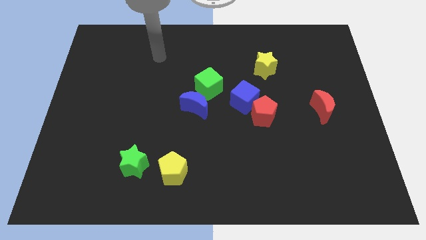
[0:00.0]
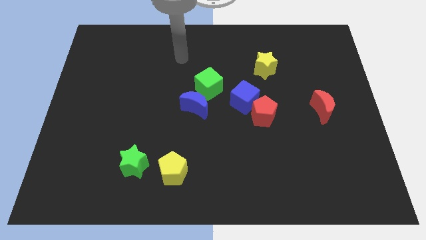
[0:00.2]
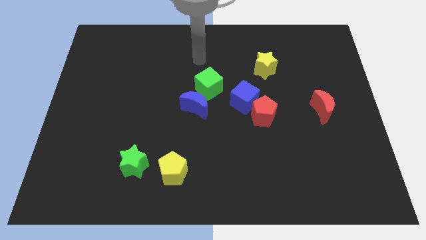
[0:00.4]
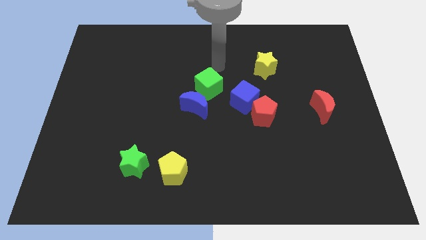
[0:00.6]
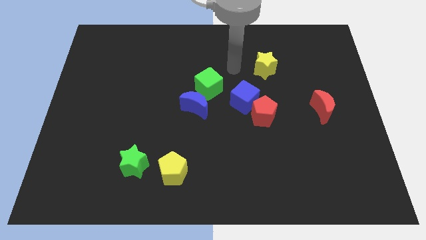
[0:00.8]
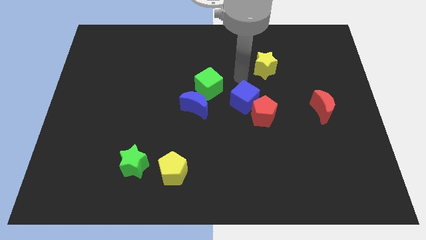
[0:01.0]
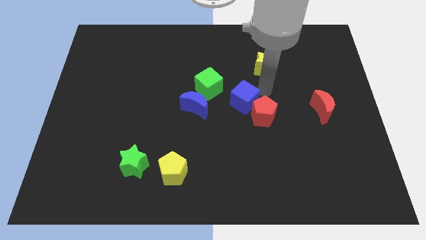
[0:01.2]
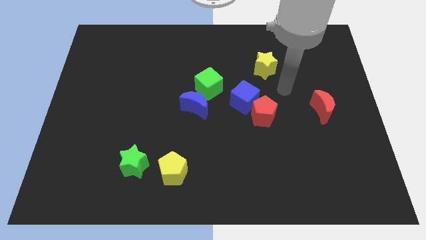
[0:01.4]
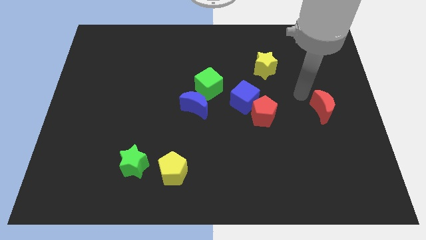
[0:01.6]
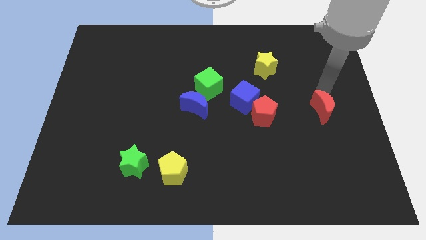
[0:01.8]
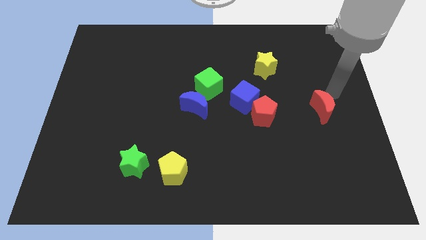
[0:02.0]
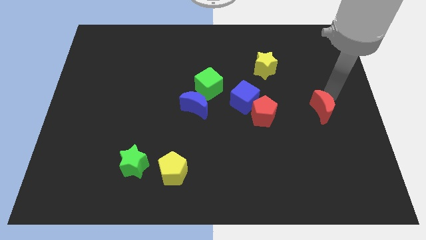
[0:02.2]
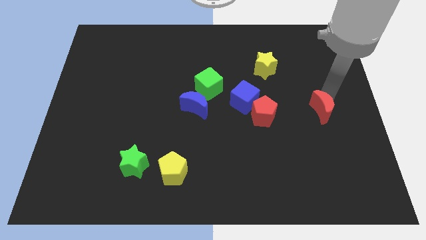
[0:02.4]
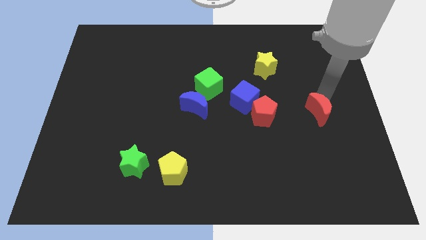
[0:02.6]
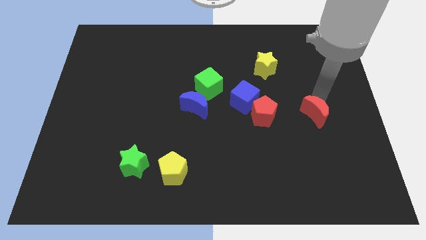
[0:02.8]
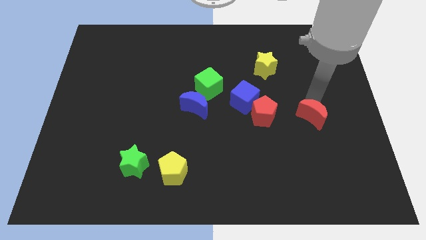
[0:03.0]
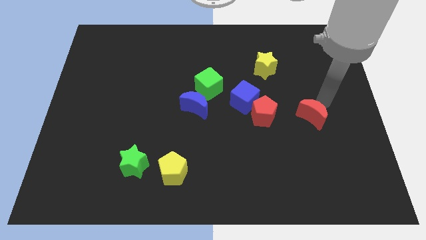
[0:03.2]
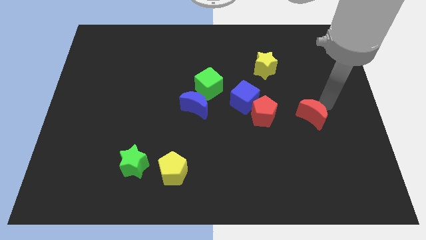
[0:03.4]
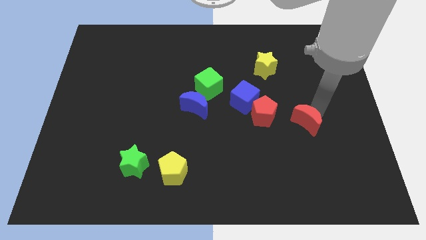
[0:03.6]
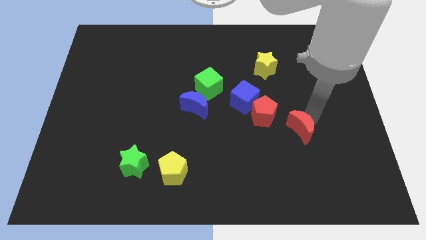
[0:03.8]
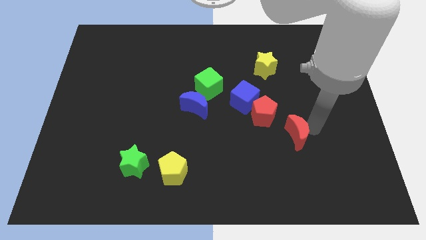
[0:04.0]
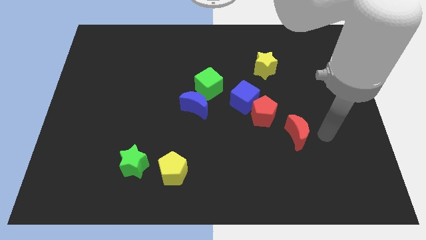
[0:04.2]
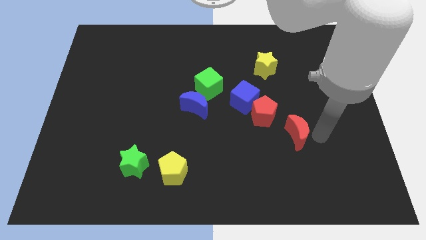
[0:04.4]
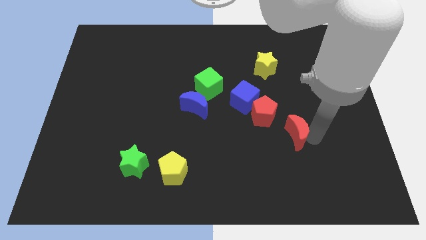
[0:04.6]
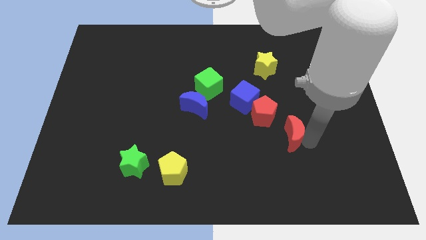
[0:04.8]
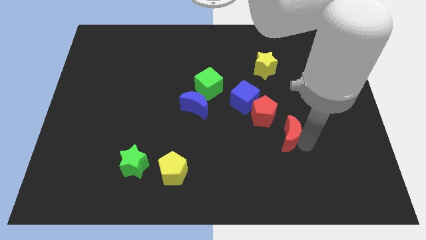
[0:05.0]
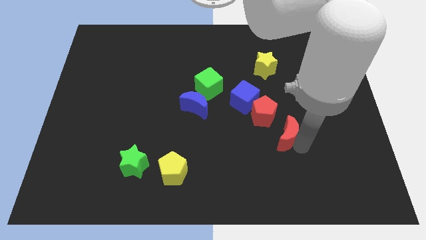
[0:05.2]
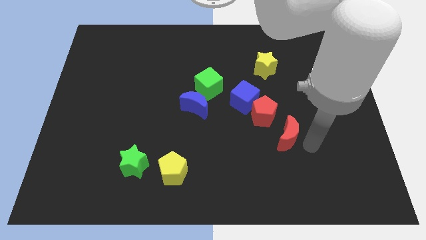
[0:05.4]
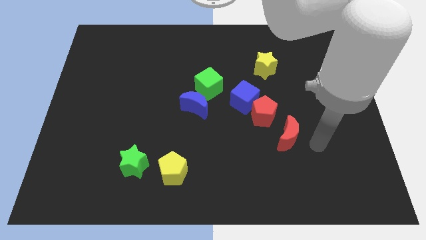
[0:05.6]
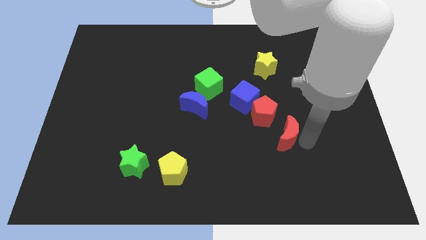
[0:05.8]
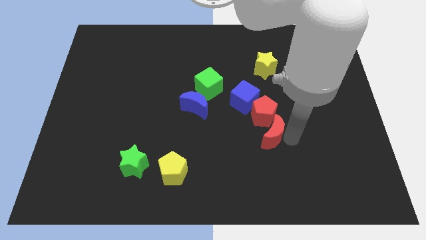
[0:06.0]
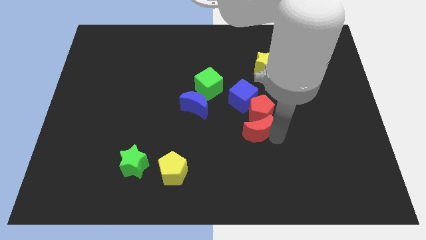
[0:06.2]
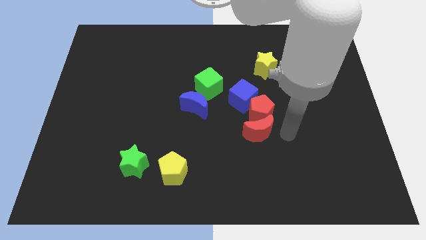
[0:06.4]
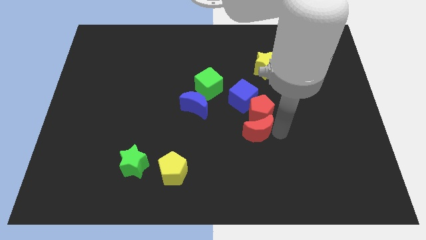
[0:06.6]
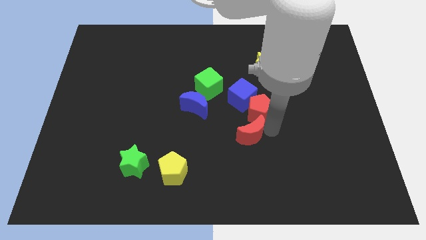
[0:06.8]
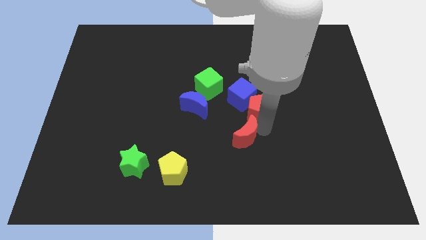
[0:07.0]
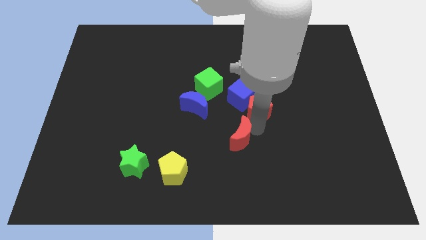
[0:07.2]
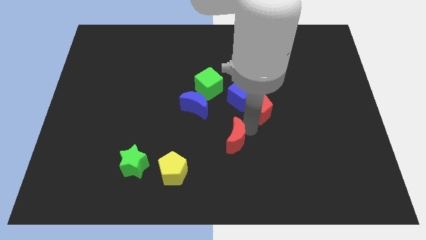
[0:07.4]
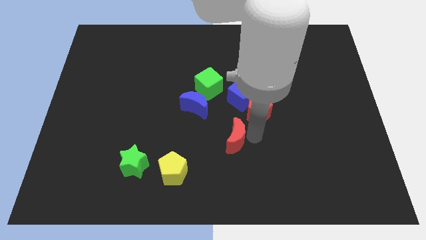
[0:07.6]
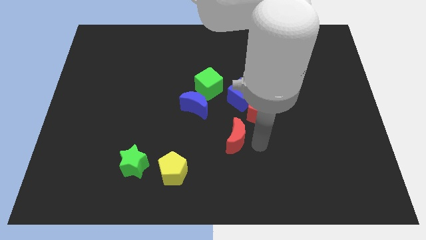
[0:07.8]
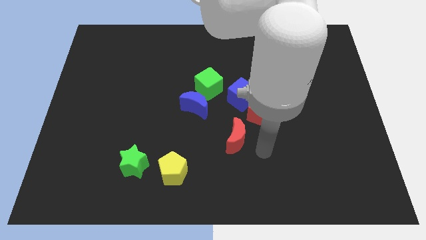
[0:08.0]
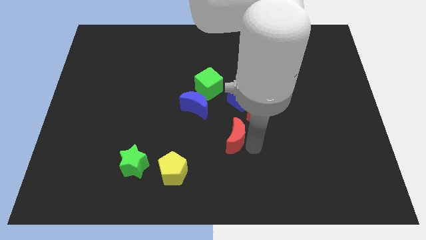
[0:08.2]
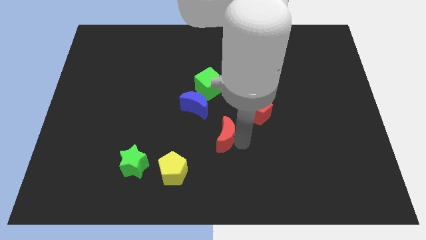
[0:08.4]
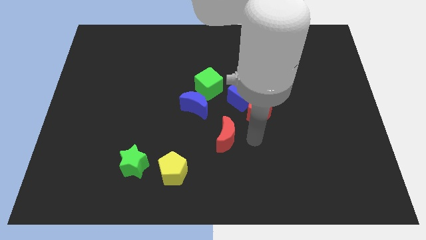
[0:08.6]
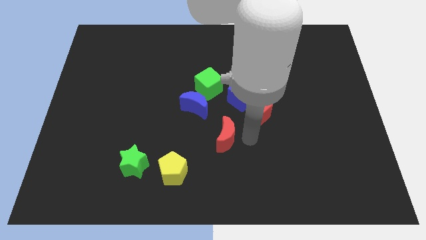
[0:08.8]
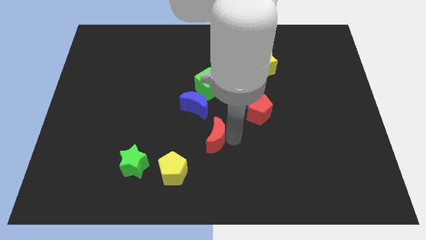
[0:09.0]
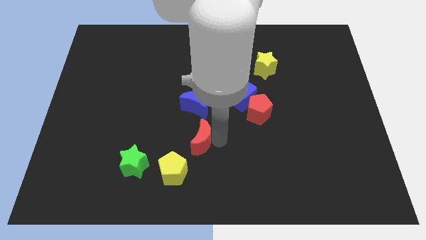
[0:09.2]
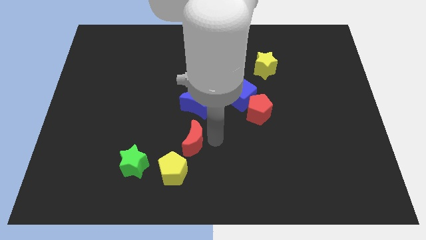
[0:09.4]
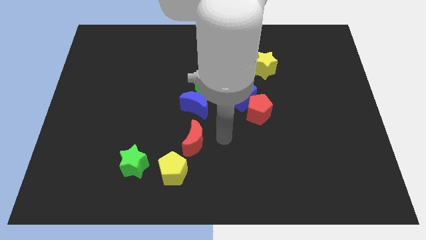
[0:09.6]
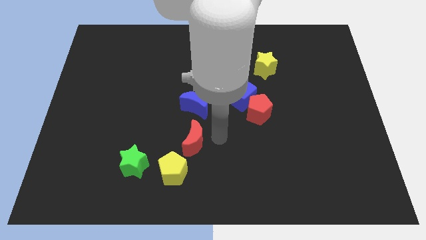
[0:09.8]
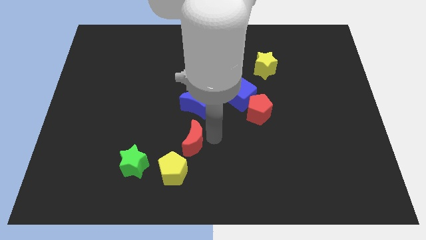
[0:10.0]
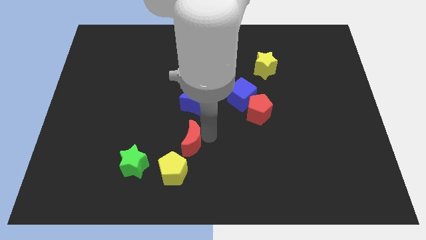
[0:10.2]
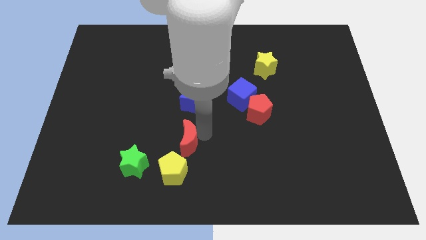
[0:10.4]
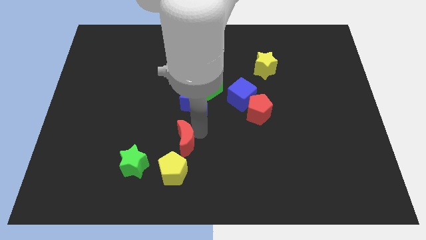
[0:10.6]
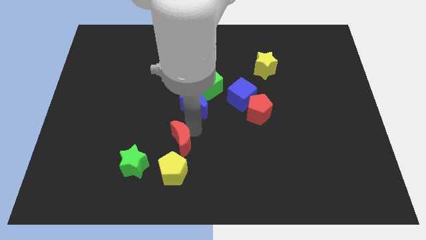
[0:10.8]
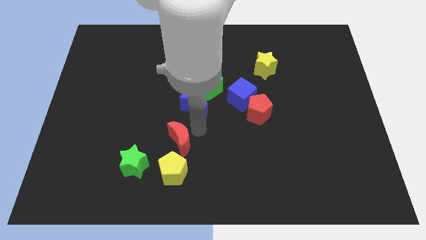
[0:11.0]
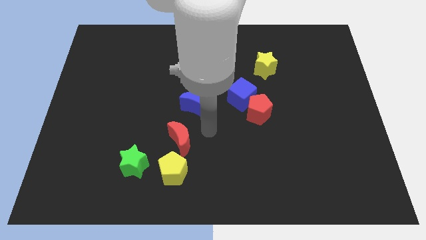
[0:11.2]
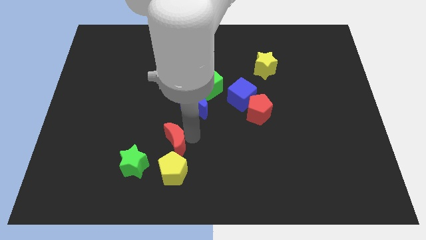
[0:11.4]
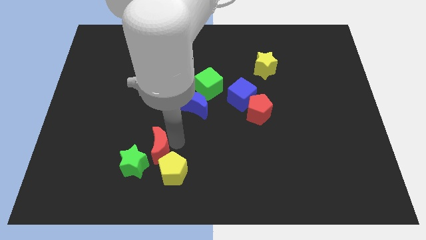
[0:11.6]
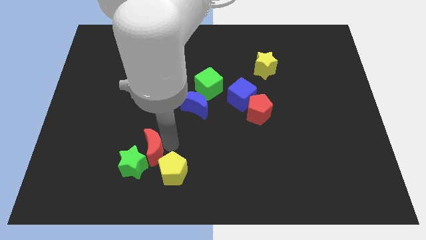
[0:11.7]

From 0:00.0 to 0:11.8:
put the red moon next to the green star

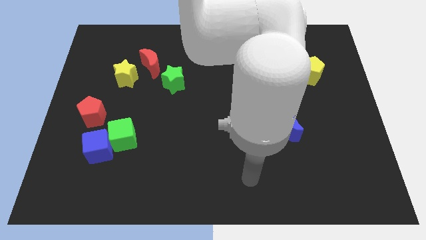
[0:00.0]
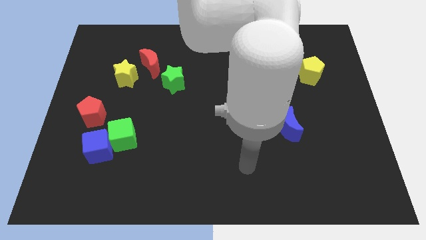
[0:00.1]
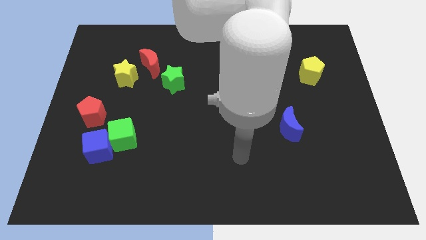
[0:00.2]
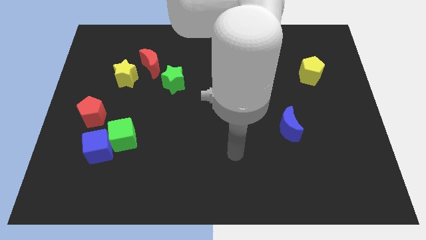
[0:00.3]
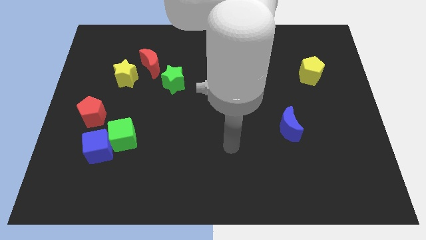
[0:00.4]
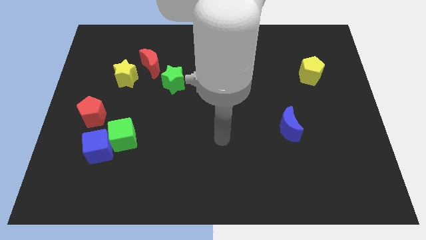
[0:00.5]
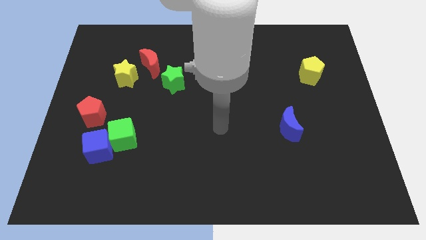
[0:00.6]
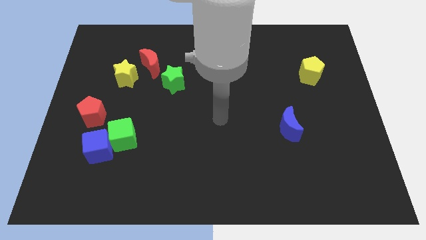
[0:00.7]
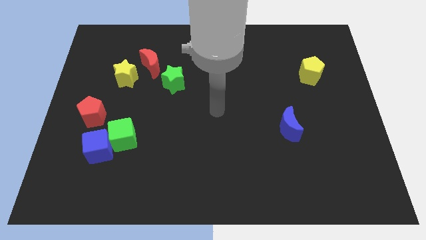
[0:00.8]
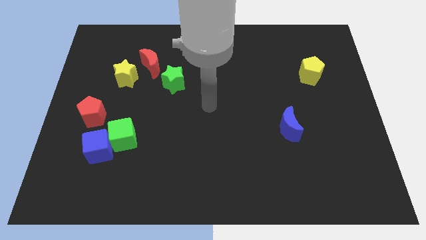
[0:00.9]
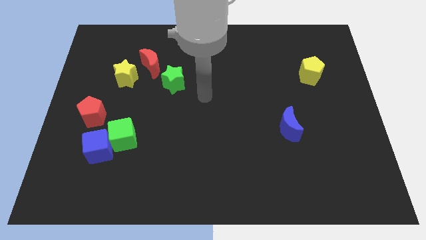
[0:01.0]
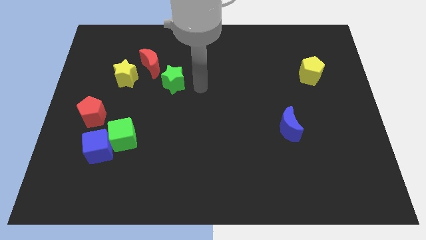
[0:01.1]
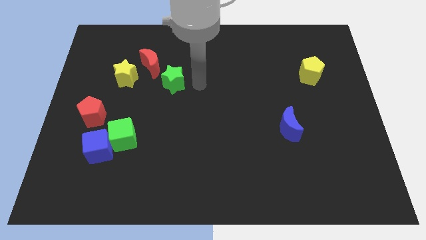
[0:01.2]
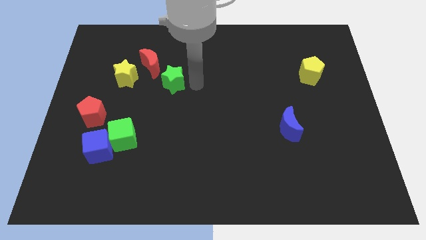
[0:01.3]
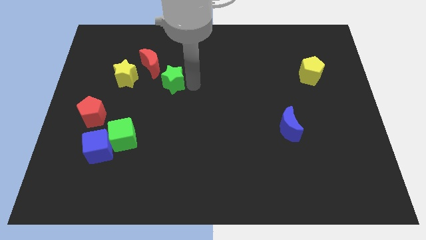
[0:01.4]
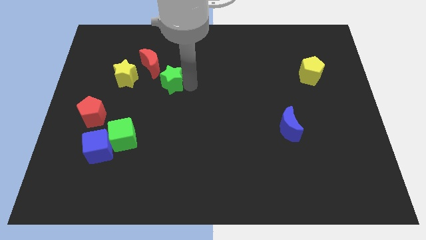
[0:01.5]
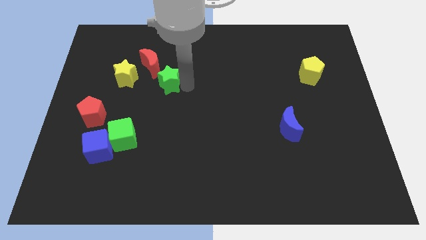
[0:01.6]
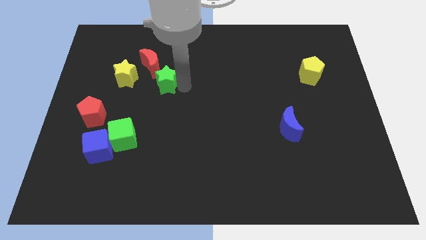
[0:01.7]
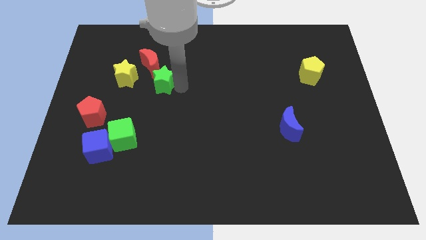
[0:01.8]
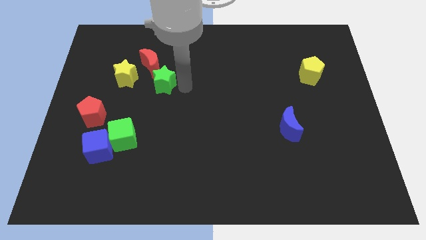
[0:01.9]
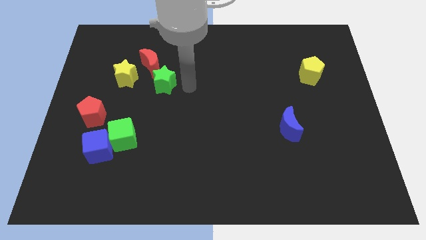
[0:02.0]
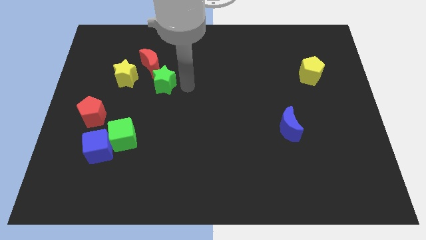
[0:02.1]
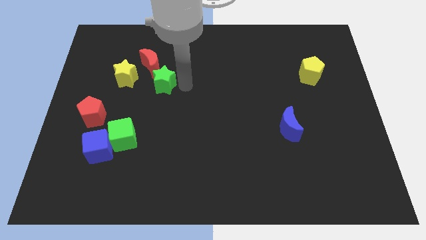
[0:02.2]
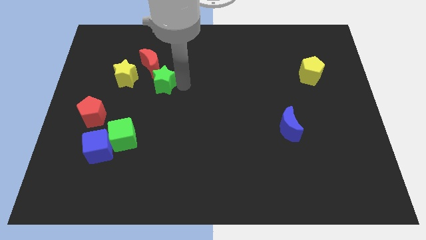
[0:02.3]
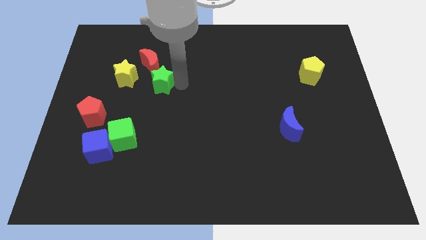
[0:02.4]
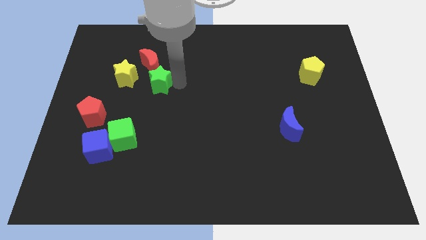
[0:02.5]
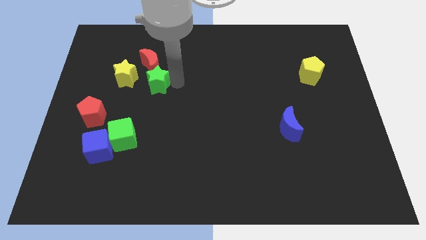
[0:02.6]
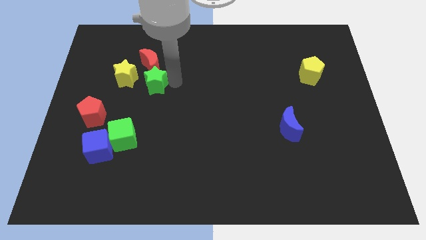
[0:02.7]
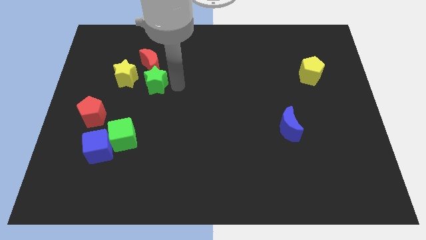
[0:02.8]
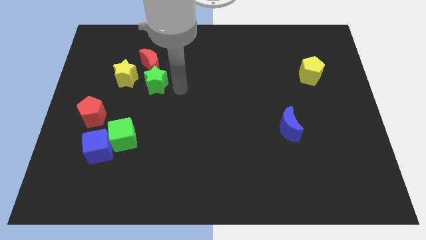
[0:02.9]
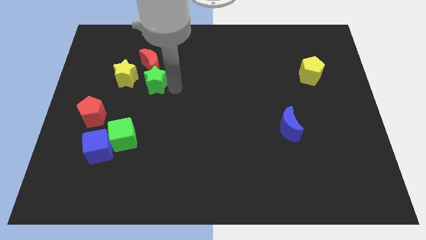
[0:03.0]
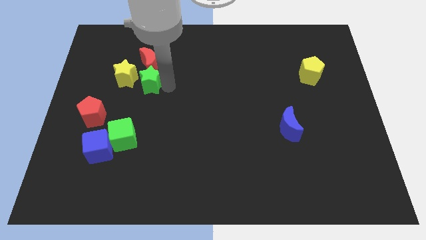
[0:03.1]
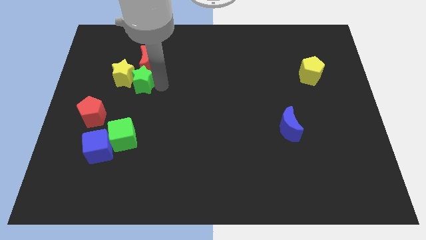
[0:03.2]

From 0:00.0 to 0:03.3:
slide the green star close to the yellow star
